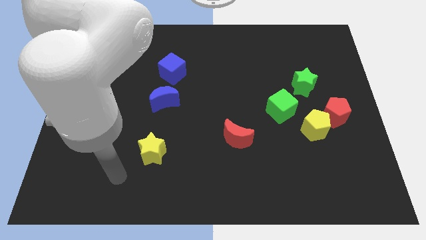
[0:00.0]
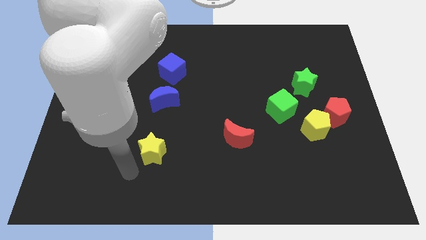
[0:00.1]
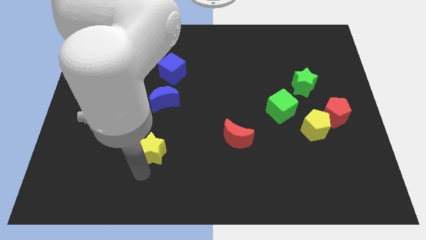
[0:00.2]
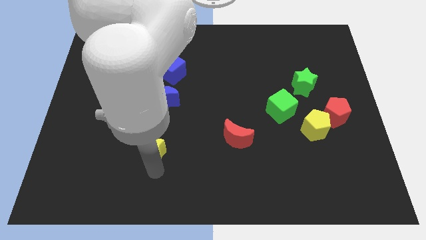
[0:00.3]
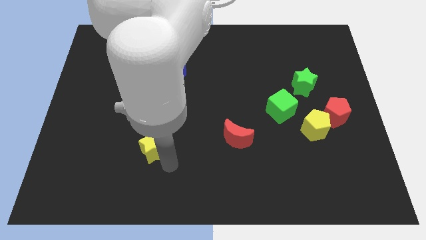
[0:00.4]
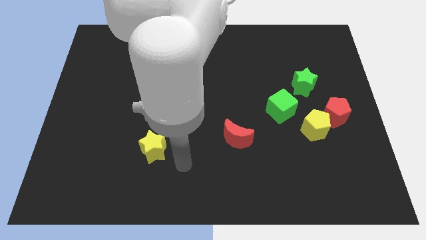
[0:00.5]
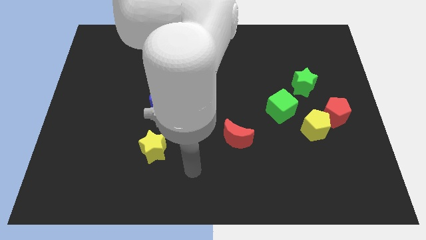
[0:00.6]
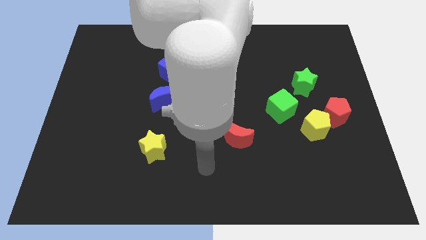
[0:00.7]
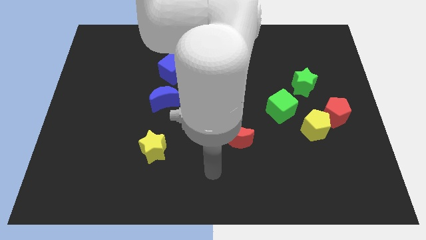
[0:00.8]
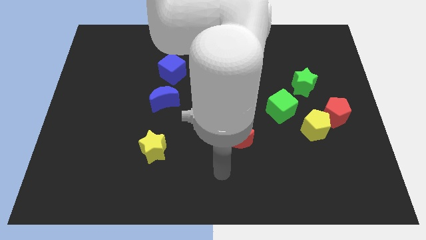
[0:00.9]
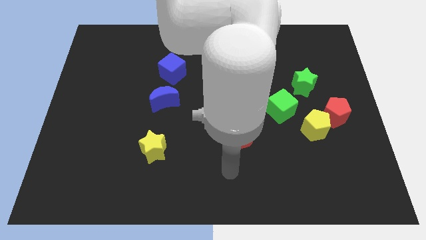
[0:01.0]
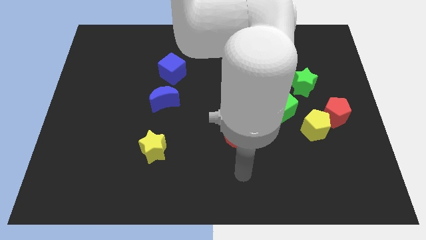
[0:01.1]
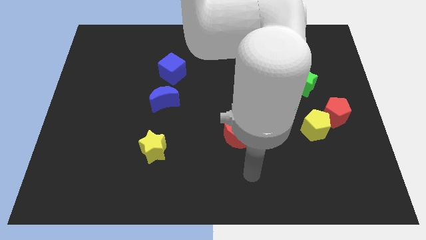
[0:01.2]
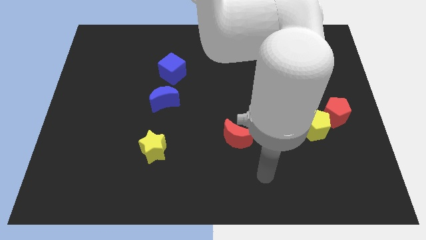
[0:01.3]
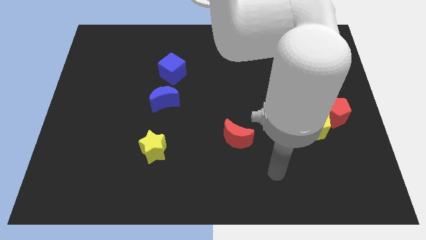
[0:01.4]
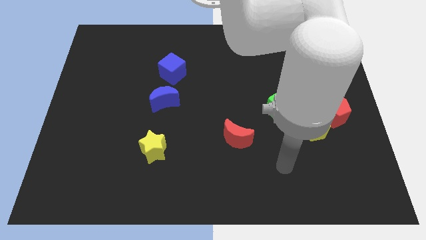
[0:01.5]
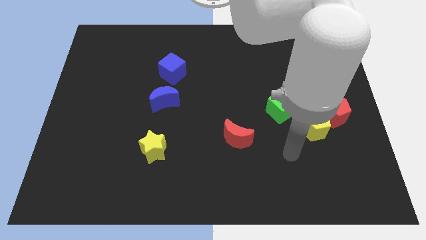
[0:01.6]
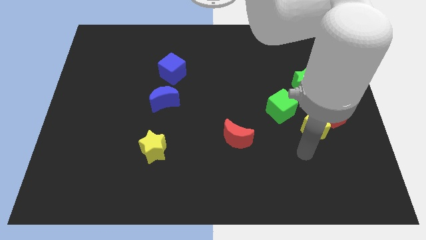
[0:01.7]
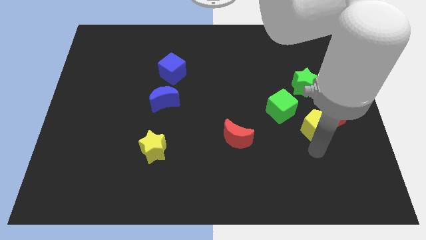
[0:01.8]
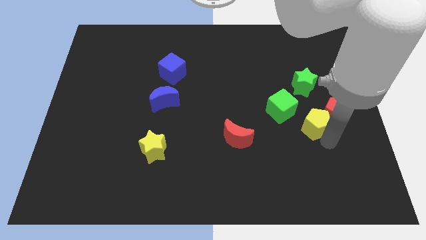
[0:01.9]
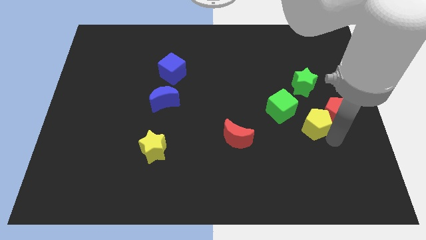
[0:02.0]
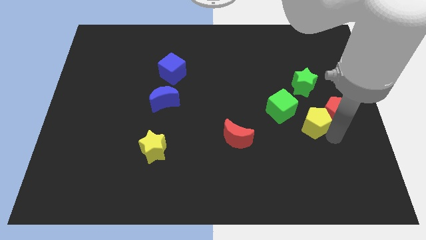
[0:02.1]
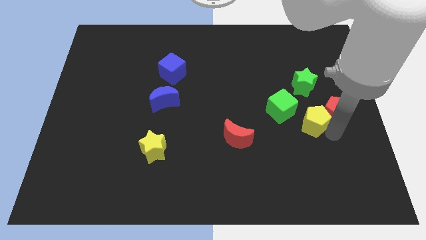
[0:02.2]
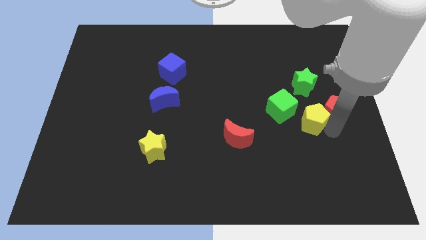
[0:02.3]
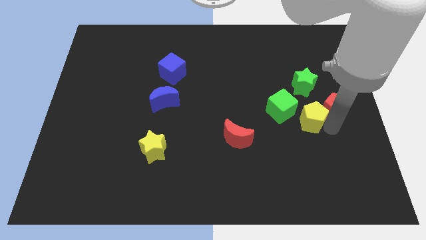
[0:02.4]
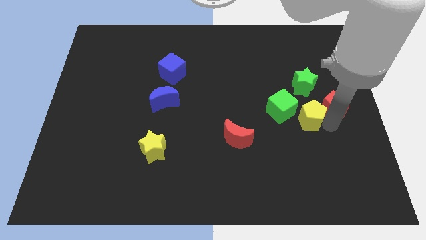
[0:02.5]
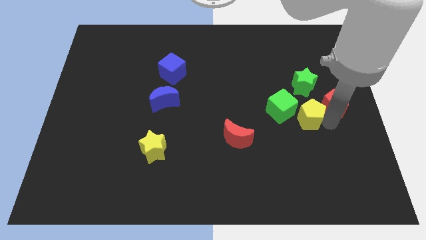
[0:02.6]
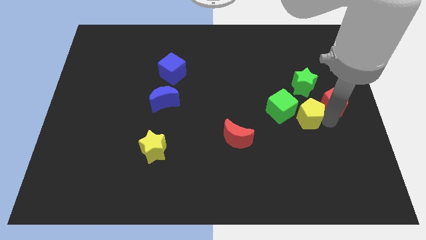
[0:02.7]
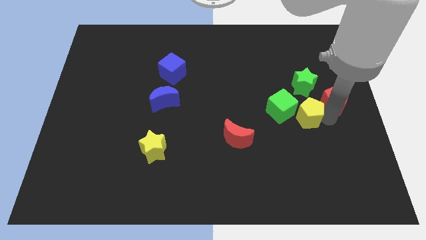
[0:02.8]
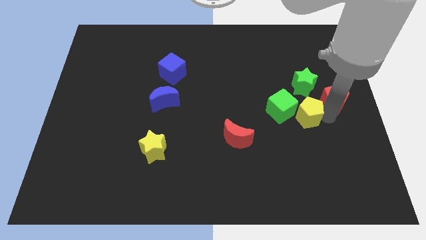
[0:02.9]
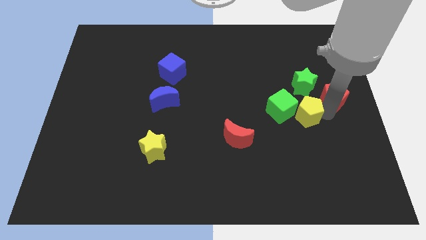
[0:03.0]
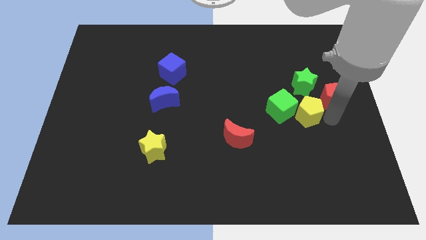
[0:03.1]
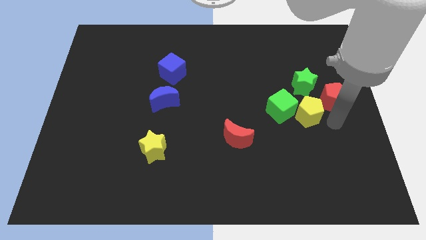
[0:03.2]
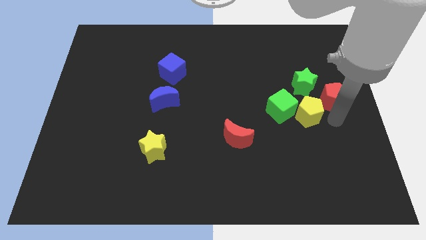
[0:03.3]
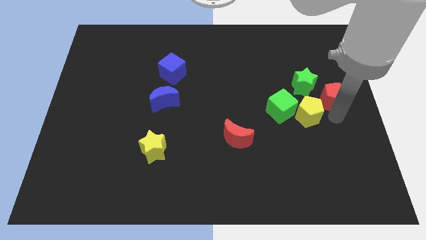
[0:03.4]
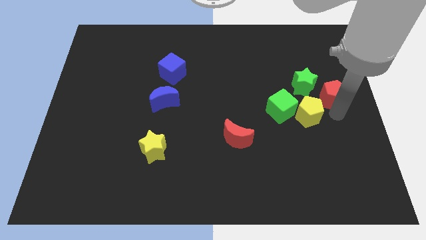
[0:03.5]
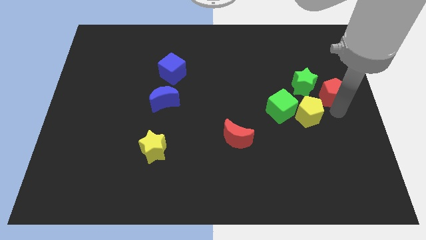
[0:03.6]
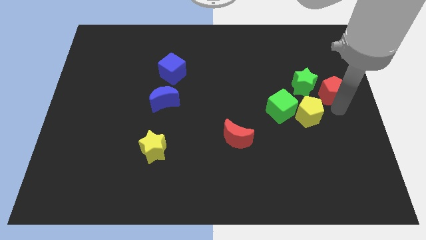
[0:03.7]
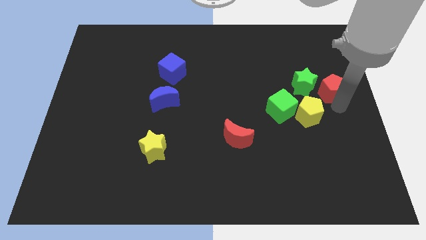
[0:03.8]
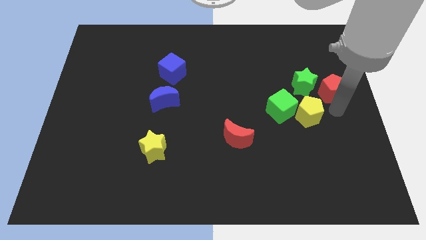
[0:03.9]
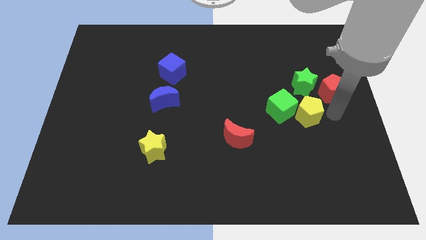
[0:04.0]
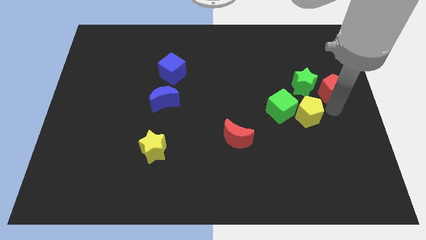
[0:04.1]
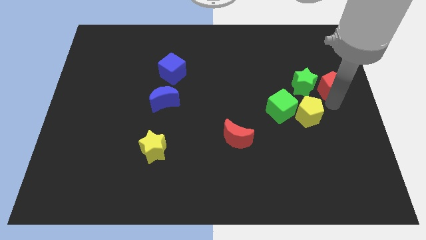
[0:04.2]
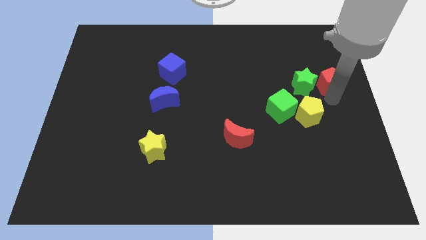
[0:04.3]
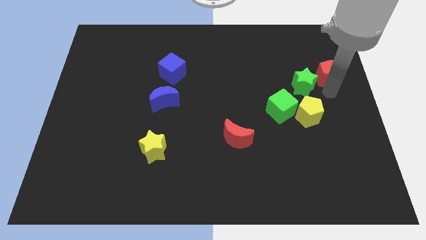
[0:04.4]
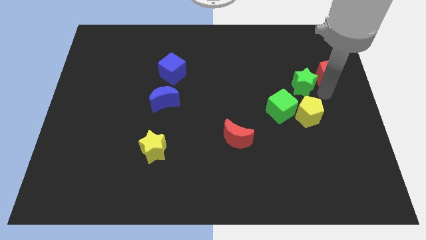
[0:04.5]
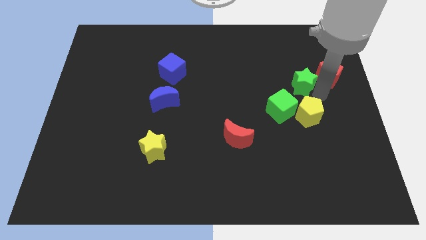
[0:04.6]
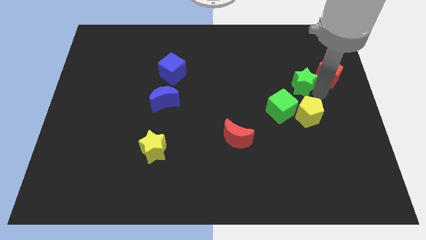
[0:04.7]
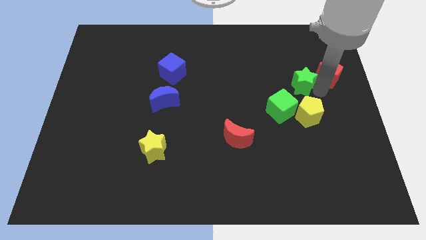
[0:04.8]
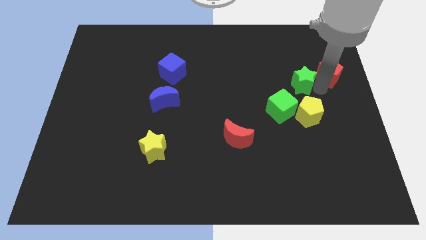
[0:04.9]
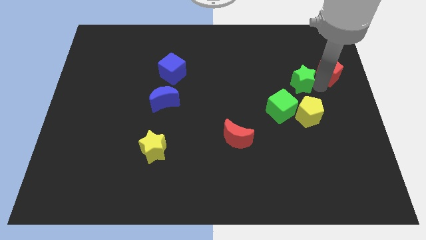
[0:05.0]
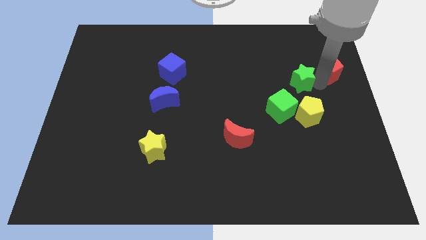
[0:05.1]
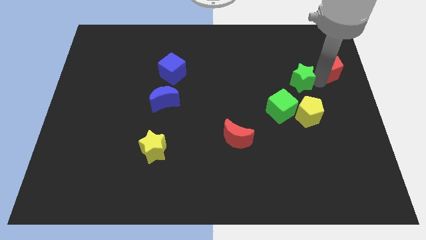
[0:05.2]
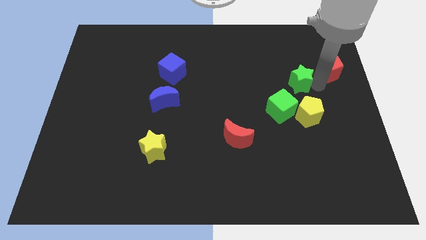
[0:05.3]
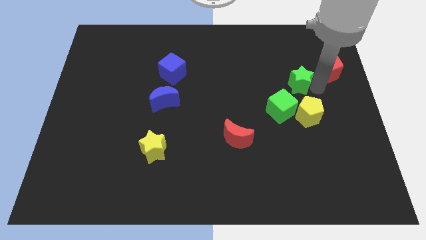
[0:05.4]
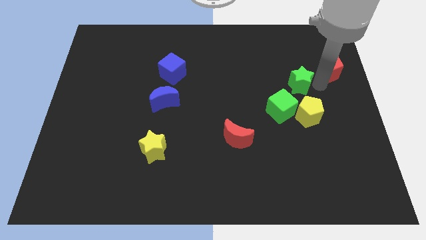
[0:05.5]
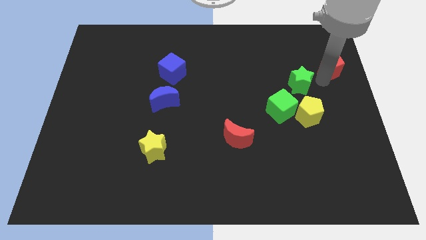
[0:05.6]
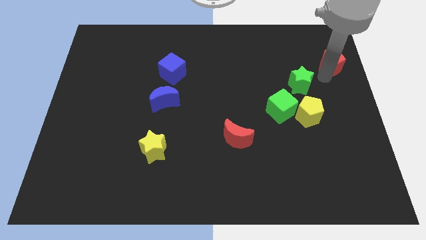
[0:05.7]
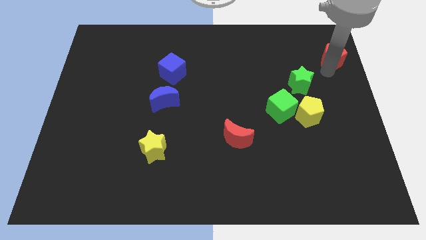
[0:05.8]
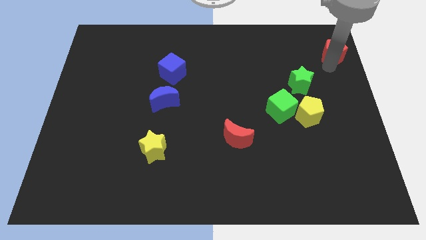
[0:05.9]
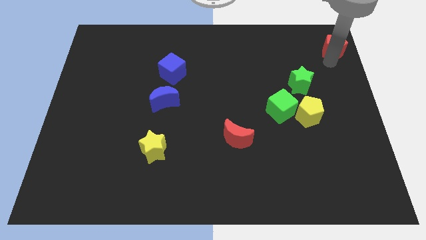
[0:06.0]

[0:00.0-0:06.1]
put the red pentagon to the top right

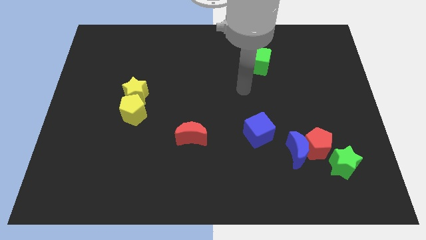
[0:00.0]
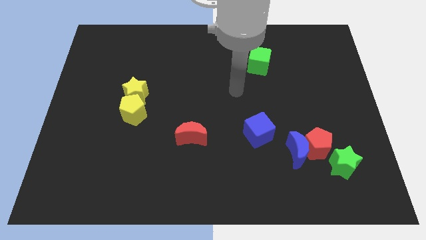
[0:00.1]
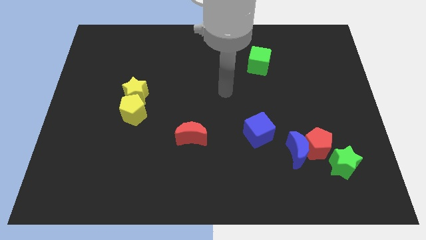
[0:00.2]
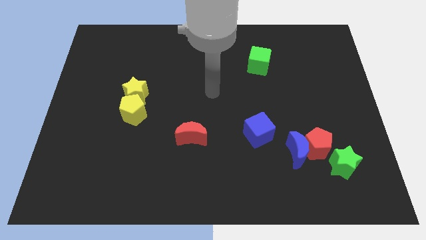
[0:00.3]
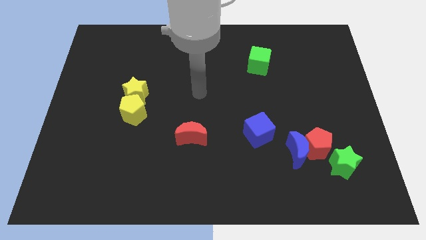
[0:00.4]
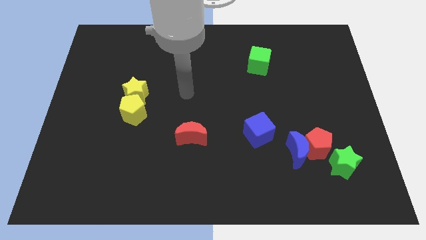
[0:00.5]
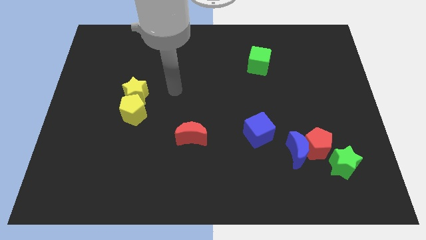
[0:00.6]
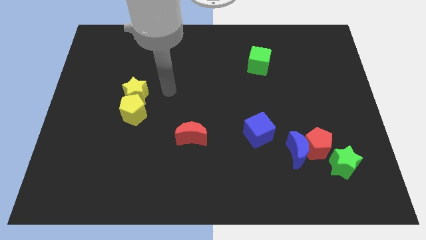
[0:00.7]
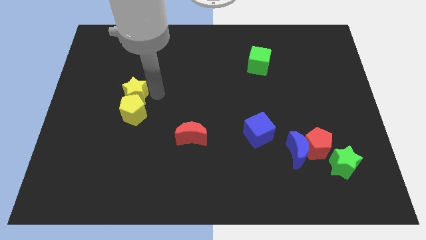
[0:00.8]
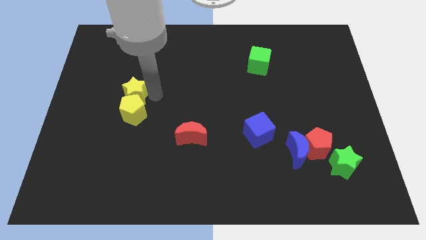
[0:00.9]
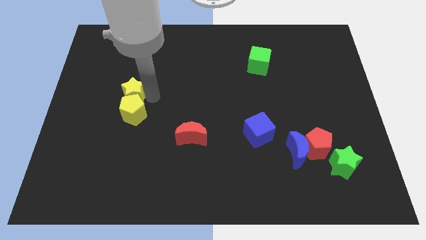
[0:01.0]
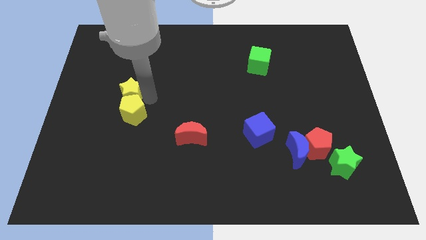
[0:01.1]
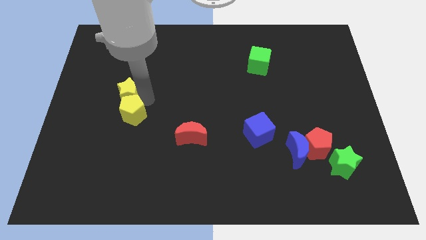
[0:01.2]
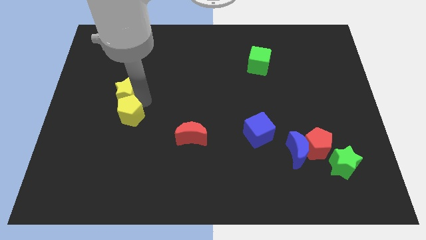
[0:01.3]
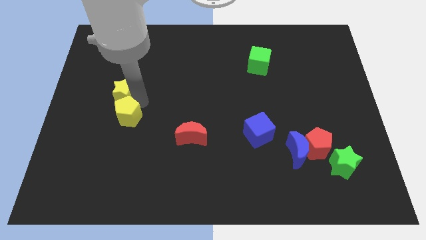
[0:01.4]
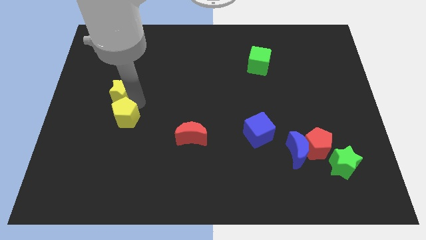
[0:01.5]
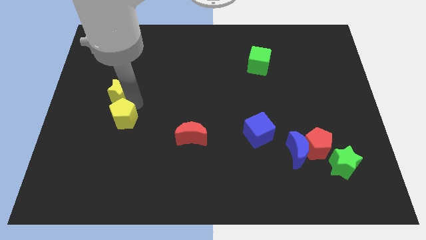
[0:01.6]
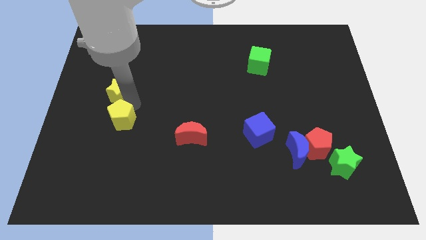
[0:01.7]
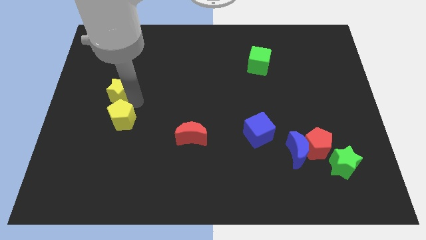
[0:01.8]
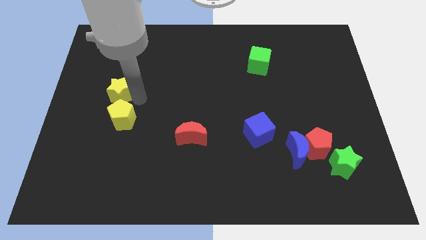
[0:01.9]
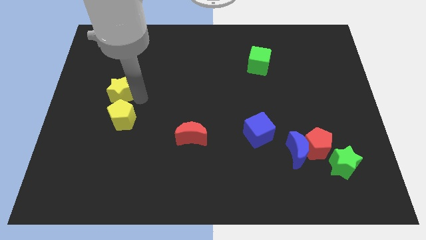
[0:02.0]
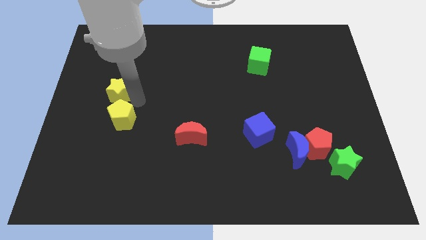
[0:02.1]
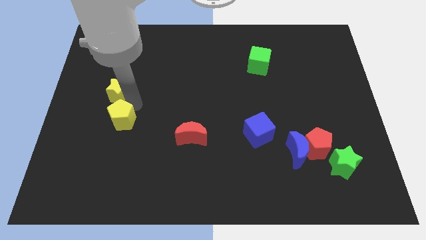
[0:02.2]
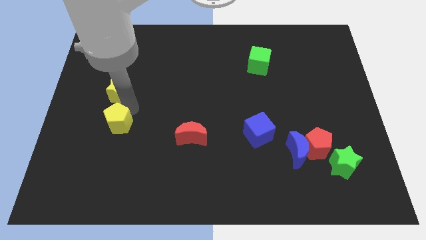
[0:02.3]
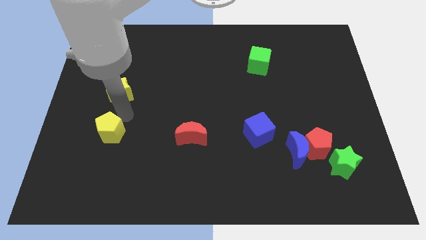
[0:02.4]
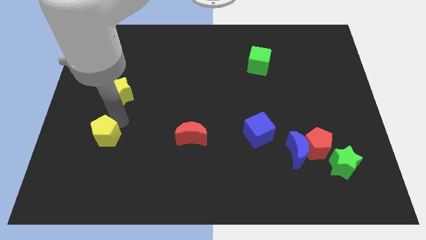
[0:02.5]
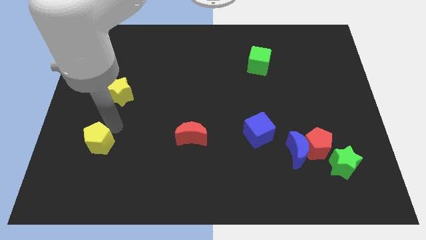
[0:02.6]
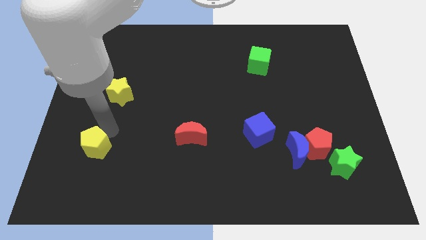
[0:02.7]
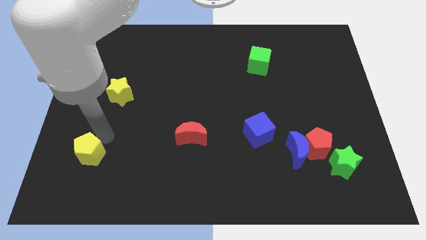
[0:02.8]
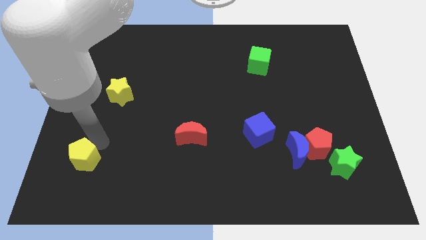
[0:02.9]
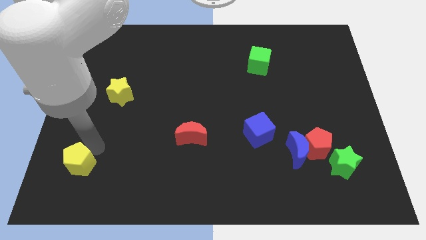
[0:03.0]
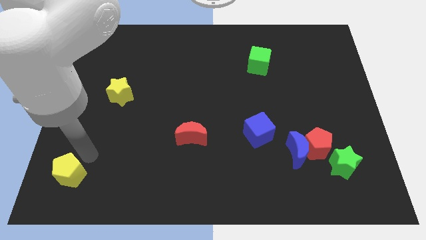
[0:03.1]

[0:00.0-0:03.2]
push the yellow pentagon to the bottom left corner
